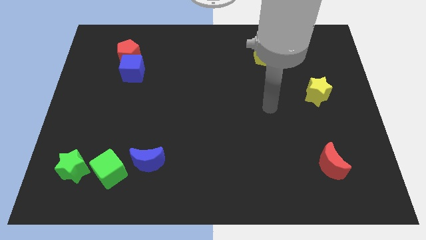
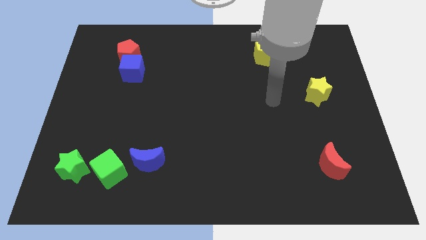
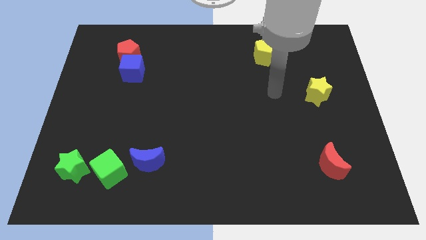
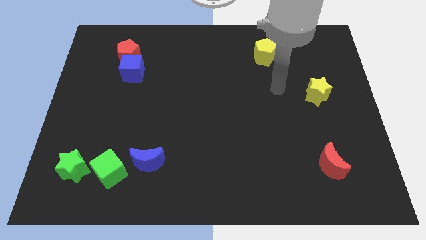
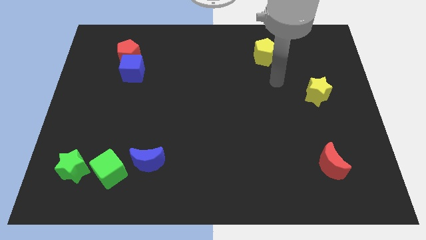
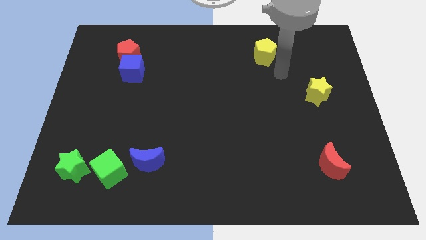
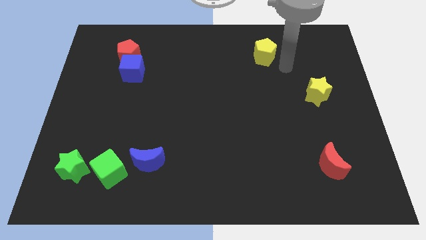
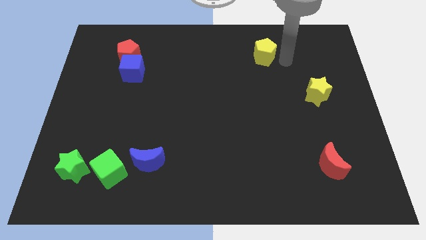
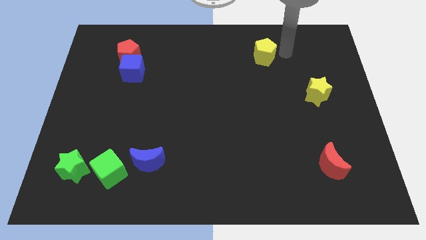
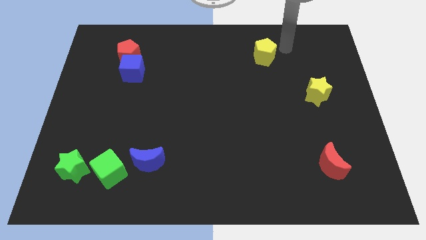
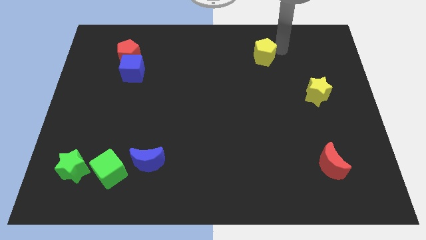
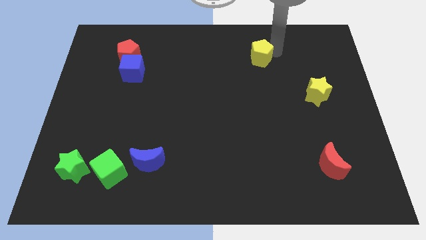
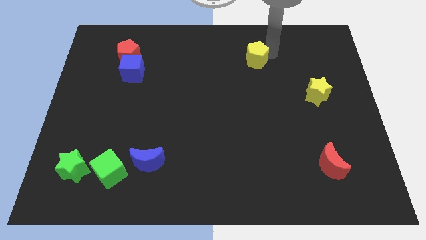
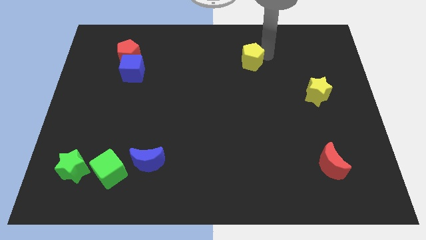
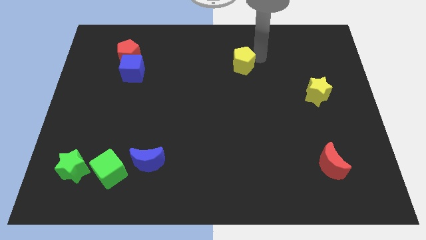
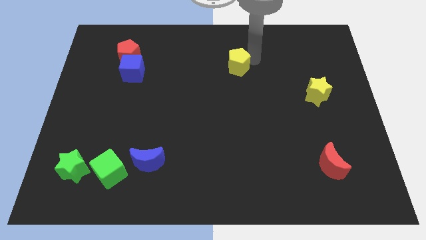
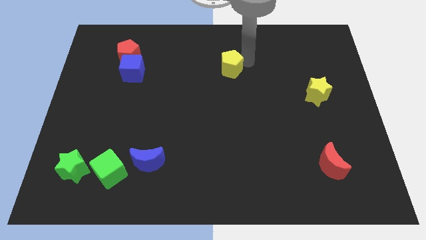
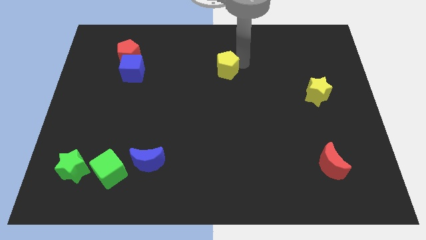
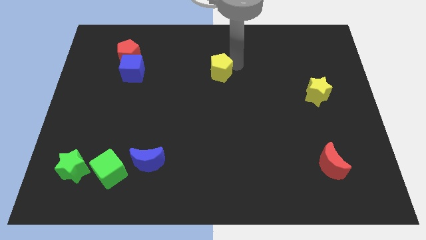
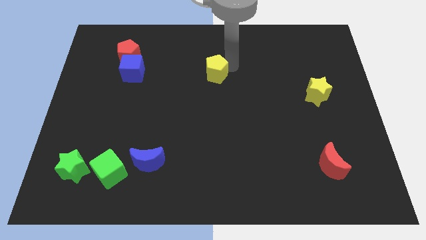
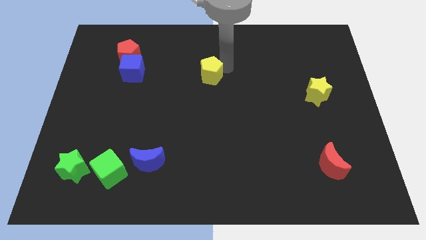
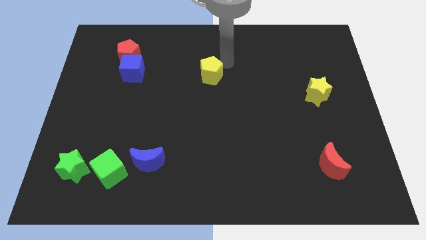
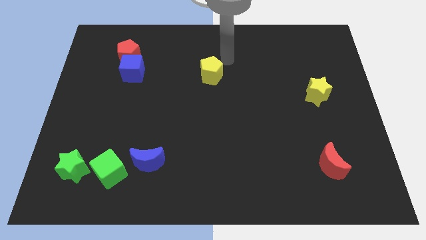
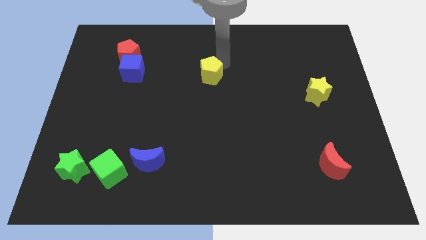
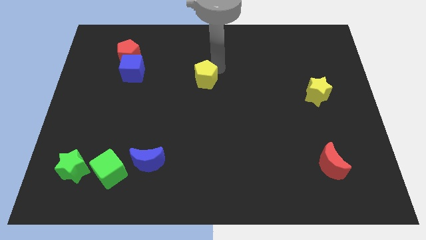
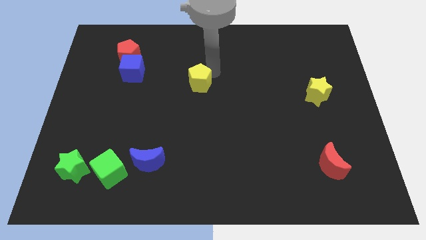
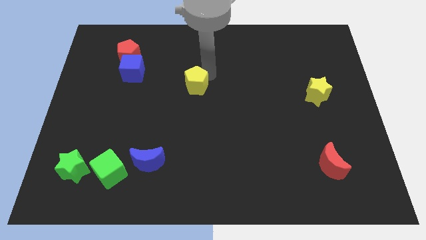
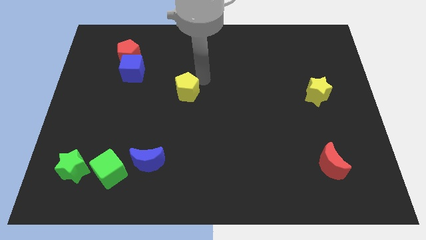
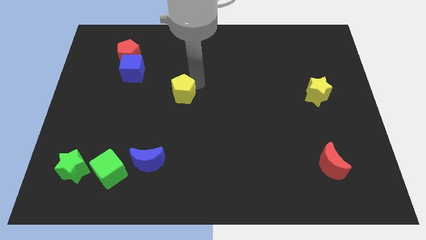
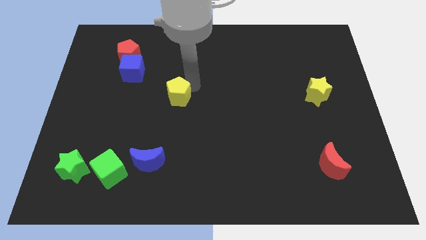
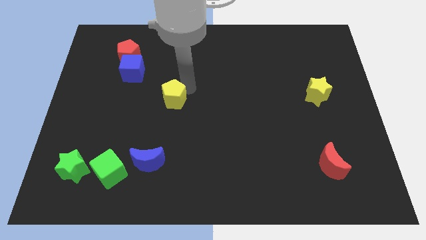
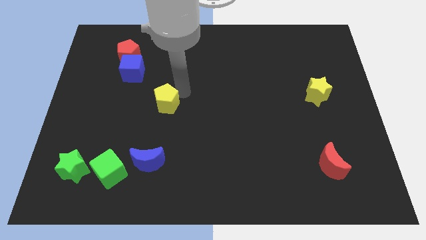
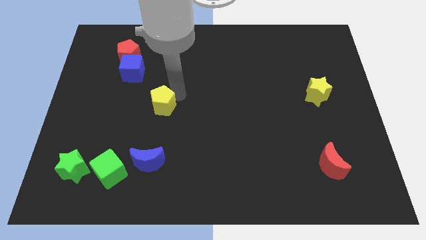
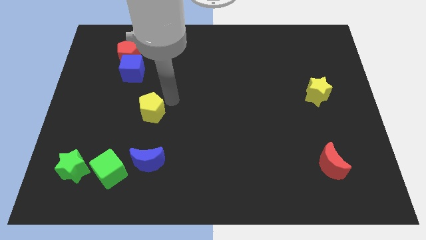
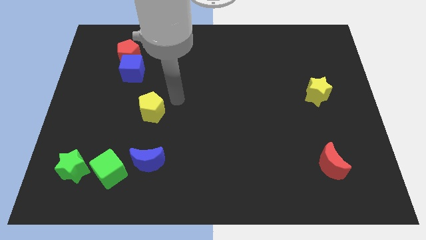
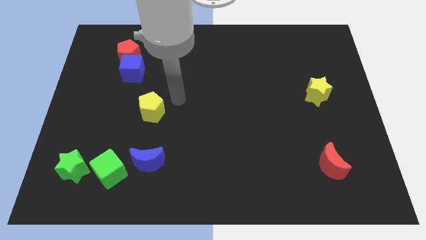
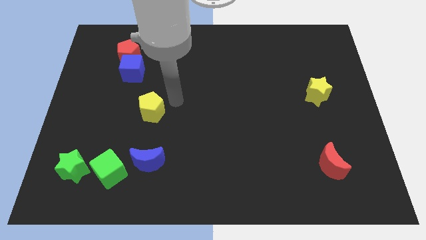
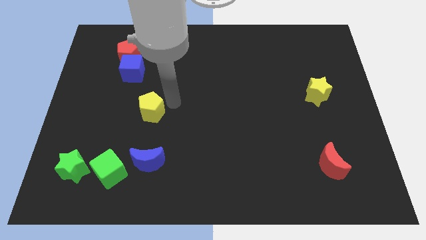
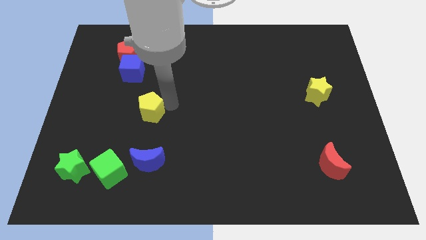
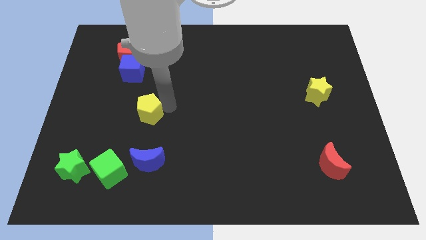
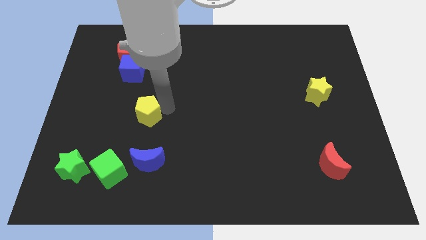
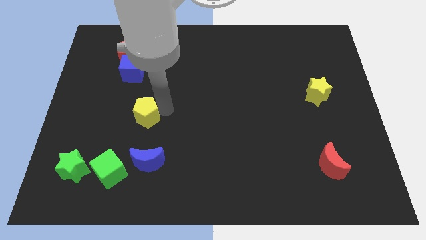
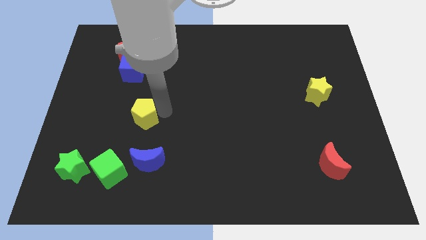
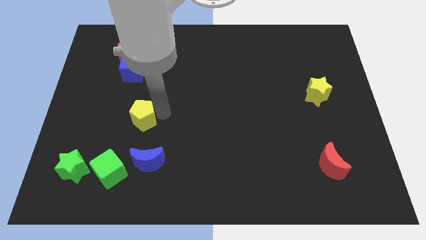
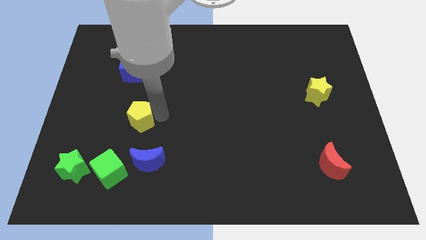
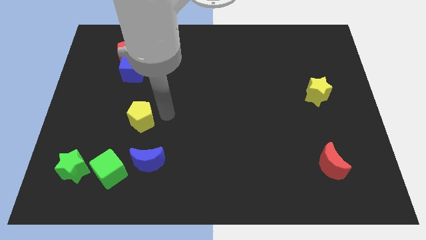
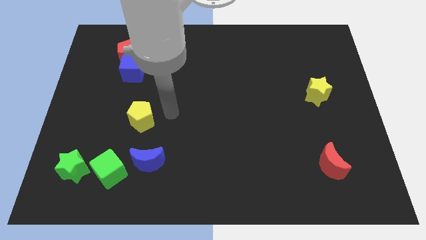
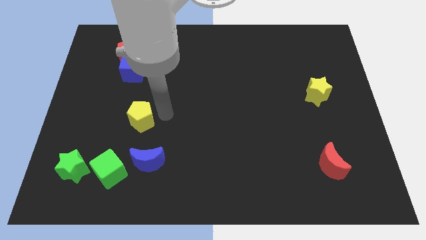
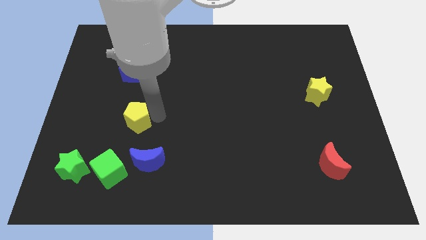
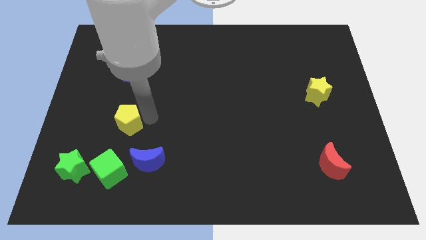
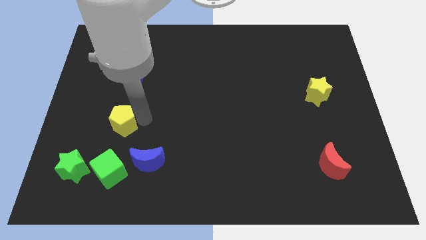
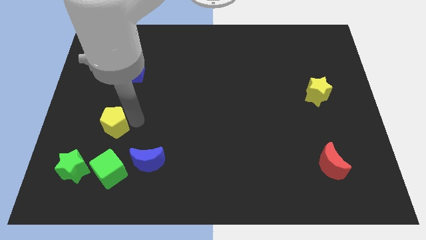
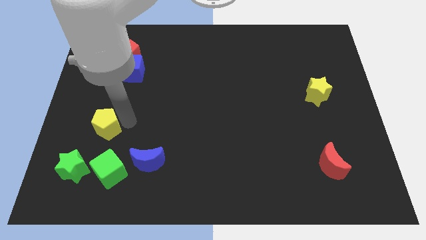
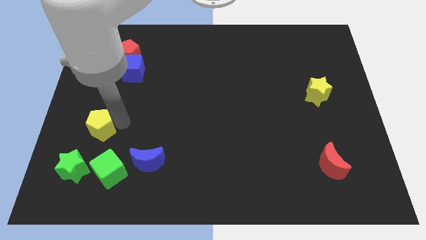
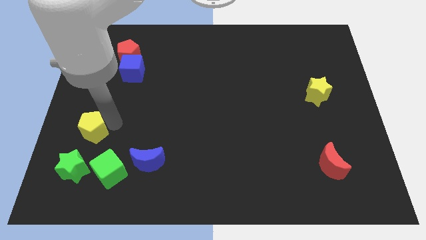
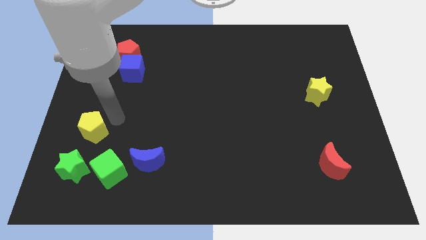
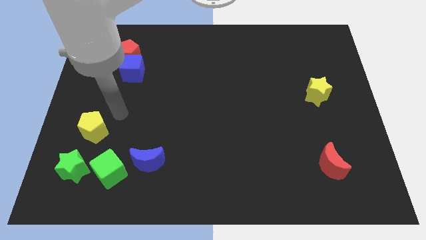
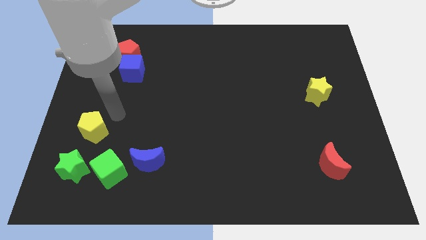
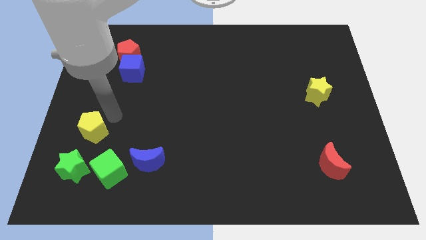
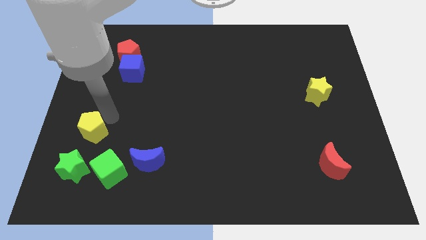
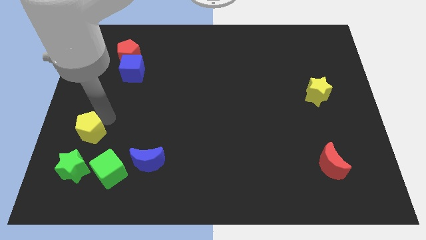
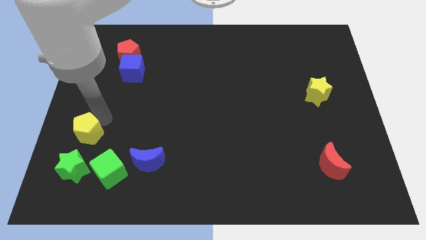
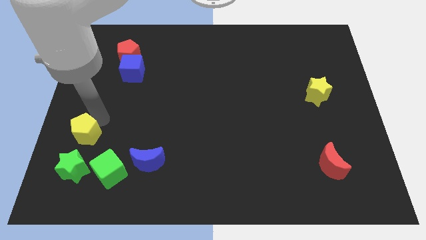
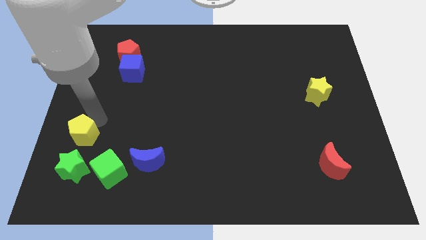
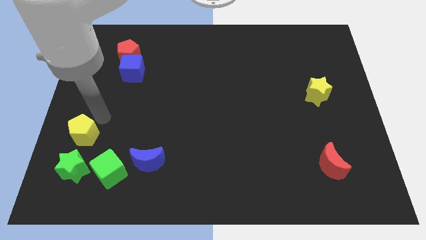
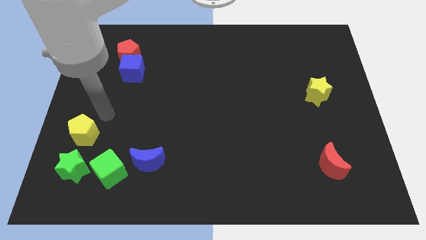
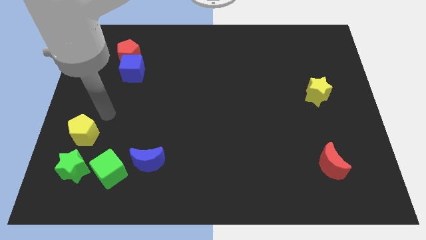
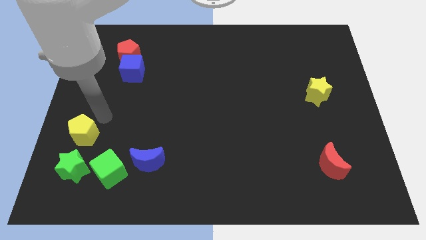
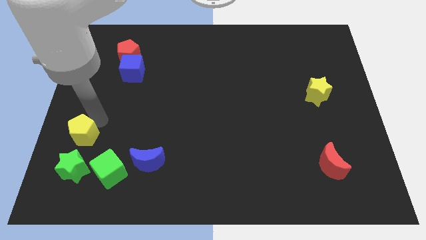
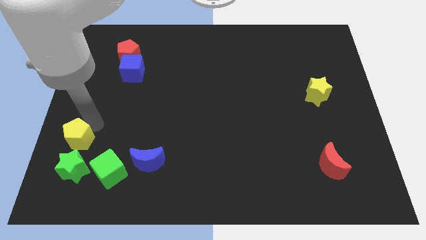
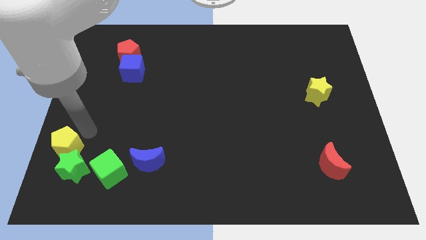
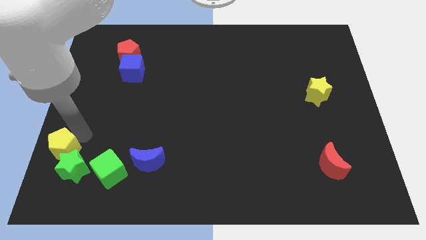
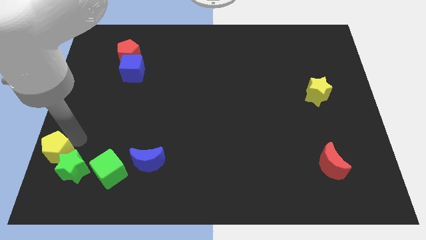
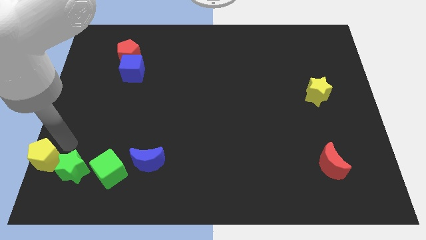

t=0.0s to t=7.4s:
slide the yellow pentagon to the bottom left corner
